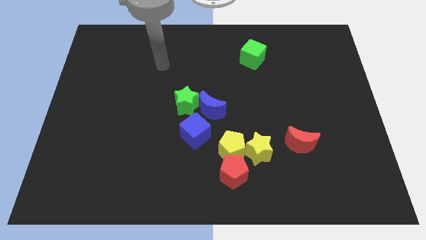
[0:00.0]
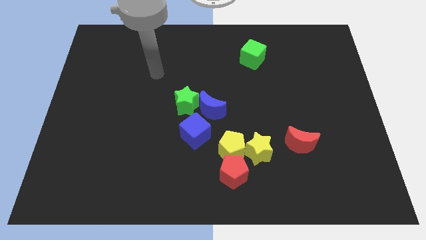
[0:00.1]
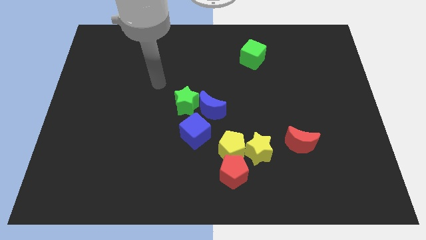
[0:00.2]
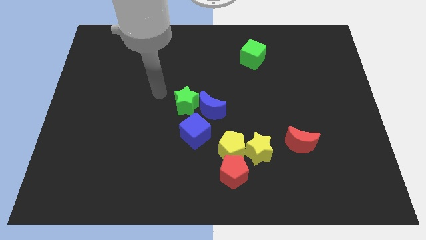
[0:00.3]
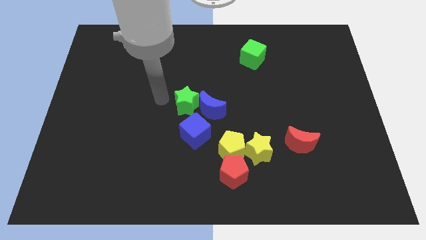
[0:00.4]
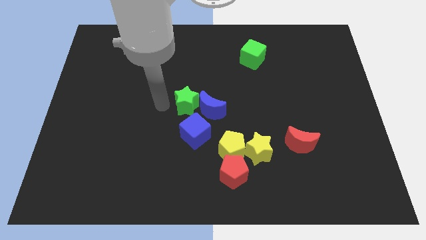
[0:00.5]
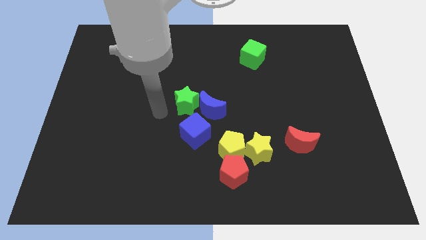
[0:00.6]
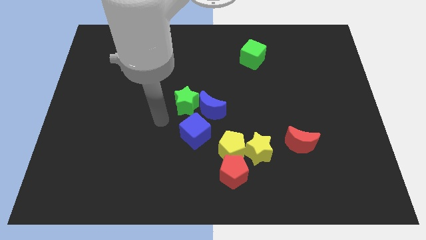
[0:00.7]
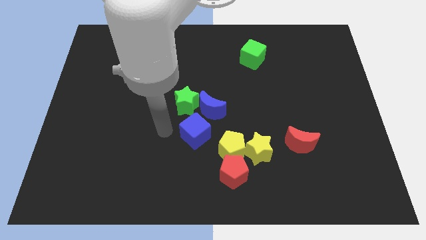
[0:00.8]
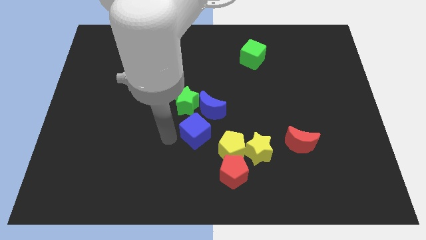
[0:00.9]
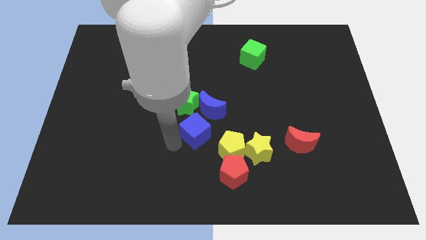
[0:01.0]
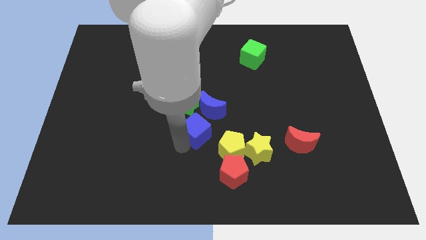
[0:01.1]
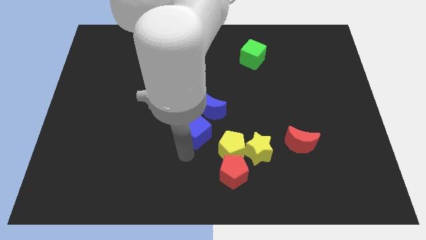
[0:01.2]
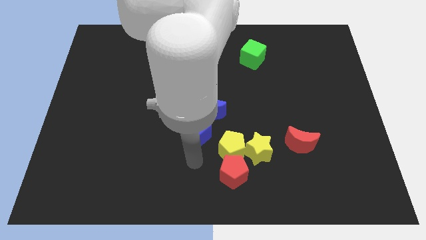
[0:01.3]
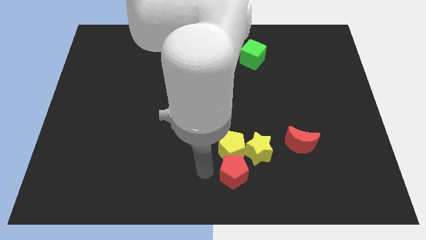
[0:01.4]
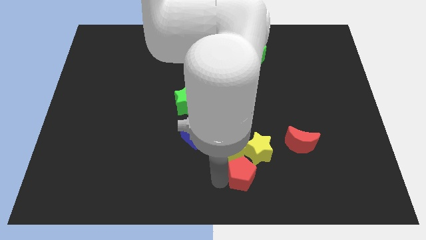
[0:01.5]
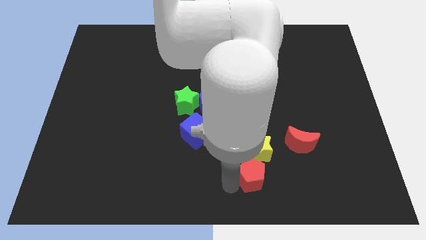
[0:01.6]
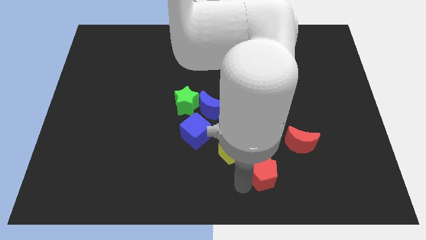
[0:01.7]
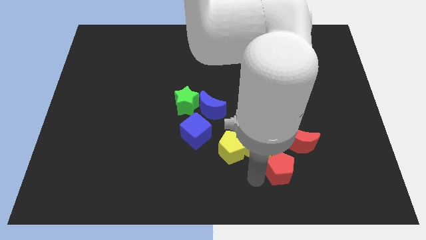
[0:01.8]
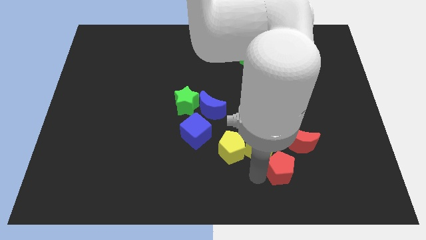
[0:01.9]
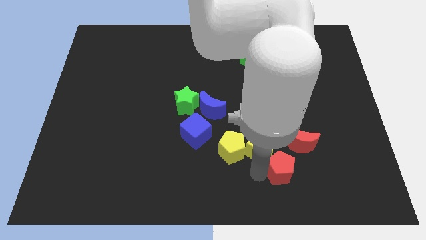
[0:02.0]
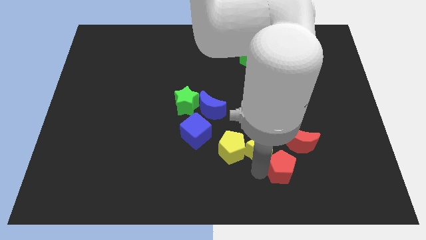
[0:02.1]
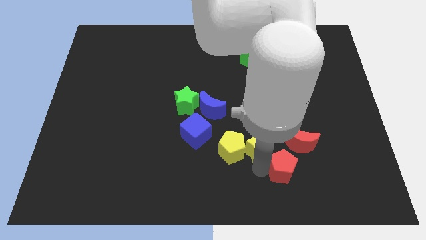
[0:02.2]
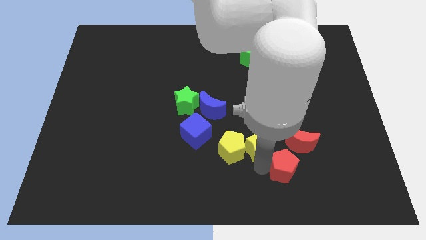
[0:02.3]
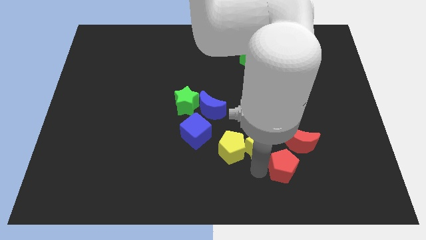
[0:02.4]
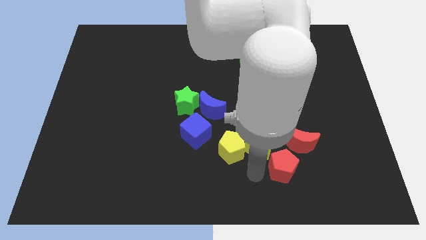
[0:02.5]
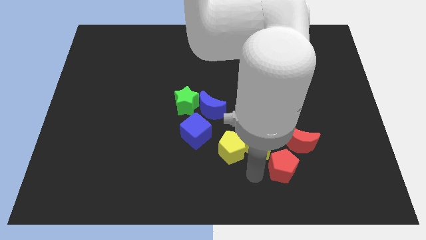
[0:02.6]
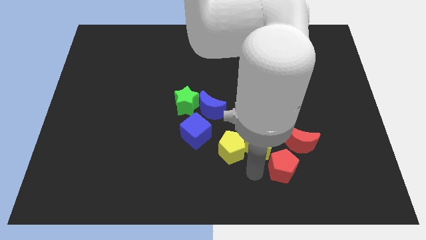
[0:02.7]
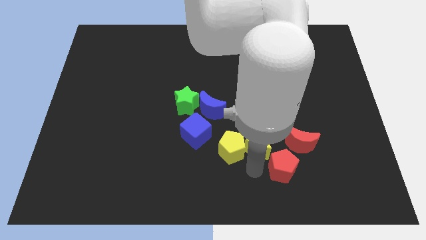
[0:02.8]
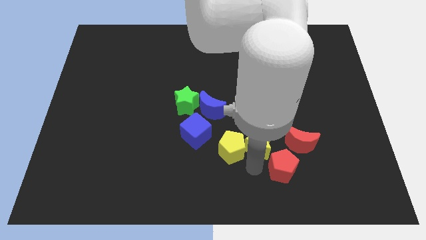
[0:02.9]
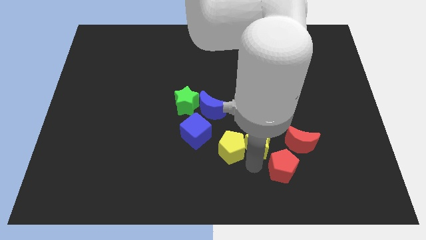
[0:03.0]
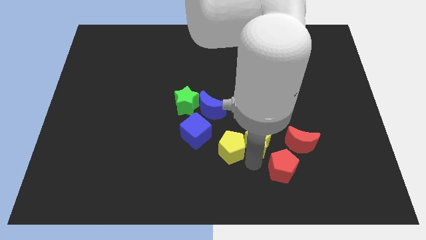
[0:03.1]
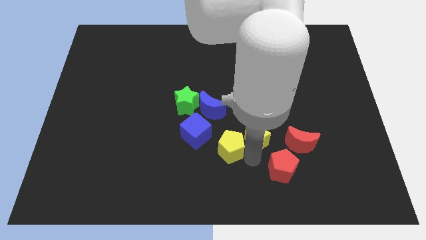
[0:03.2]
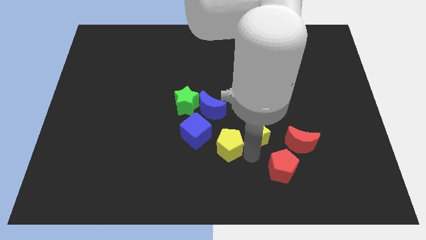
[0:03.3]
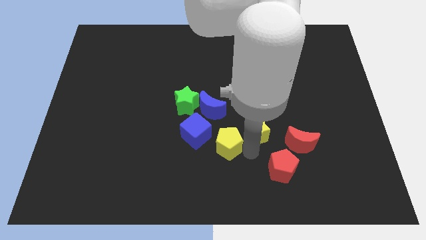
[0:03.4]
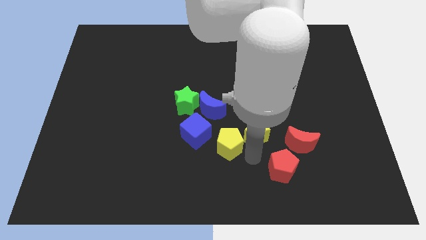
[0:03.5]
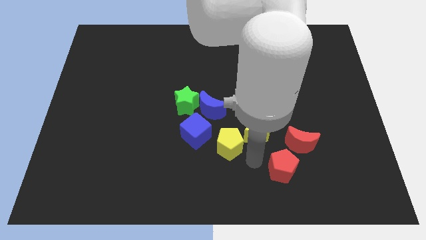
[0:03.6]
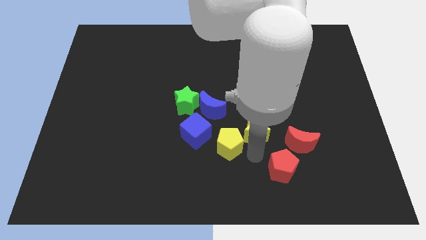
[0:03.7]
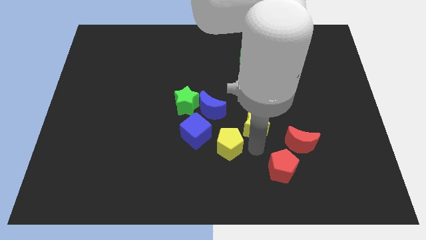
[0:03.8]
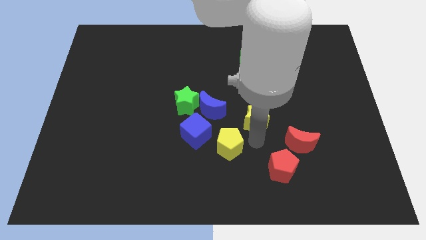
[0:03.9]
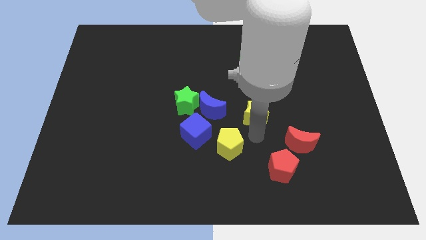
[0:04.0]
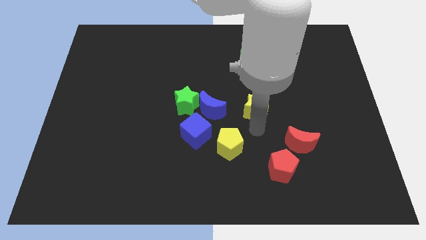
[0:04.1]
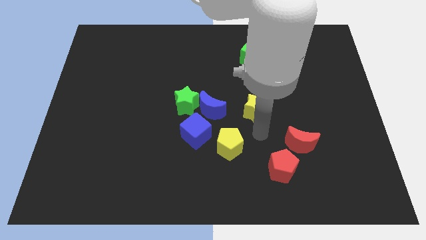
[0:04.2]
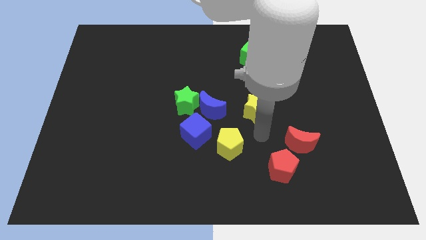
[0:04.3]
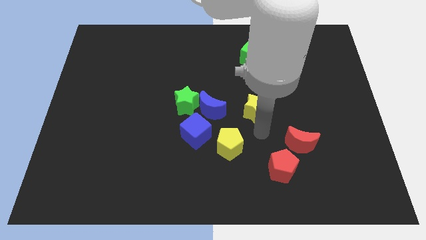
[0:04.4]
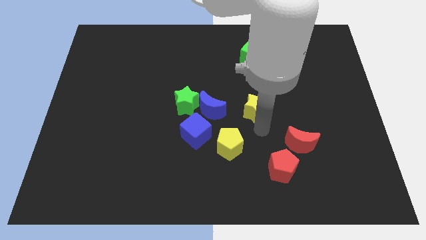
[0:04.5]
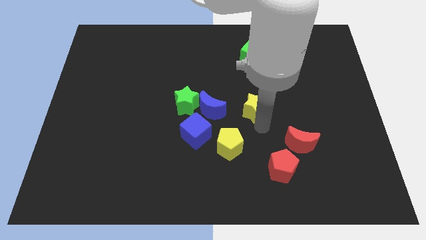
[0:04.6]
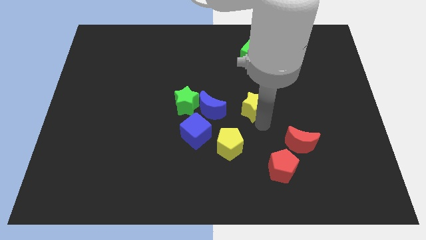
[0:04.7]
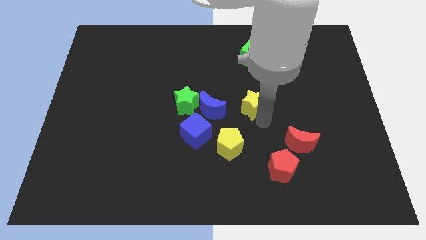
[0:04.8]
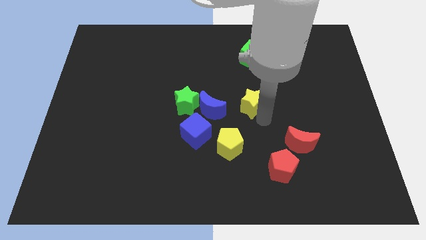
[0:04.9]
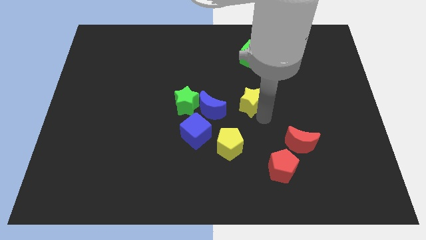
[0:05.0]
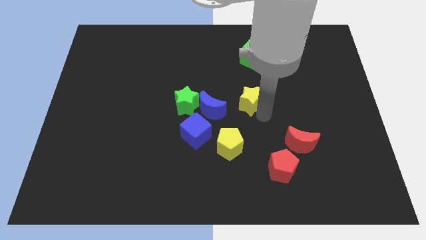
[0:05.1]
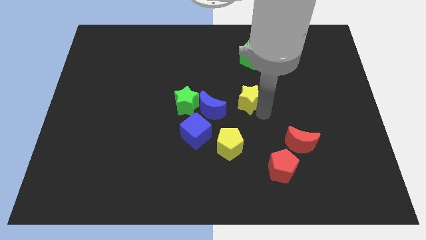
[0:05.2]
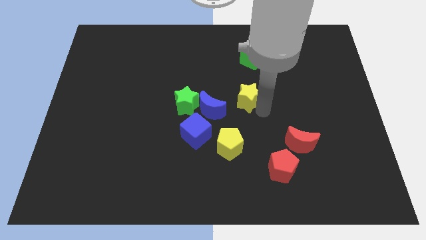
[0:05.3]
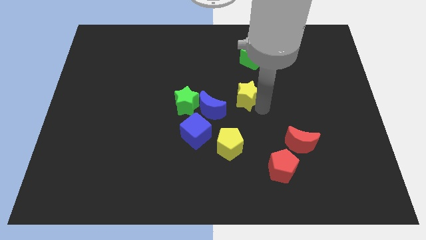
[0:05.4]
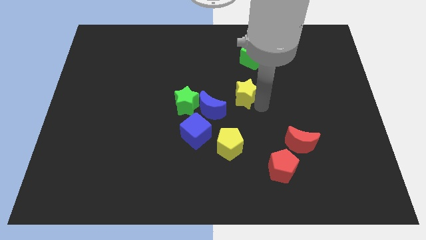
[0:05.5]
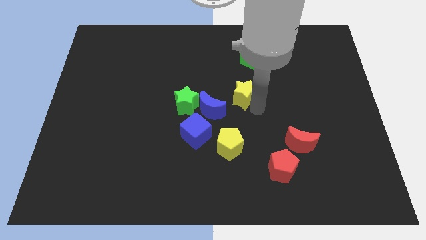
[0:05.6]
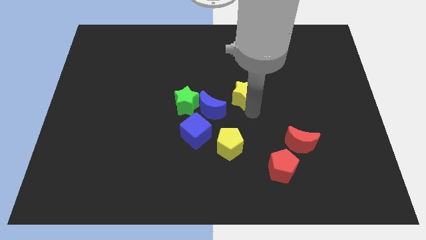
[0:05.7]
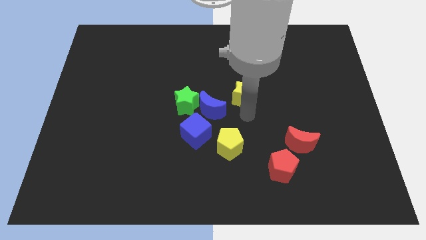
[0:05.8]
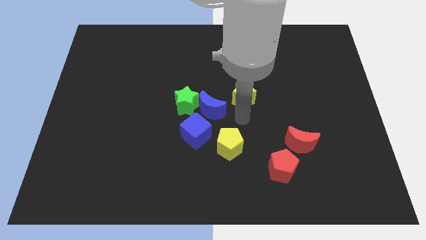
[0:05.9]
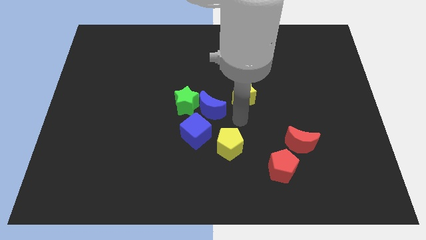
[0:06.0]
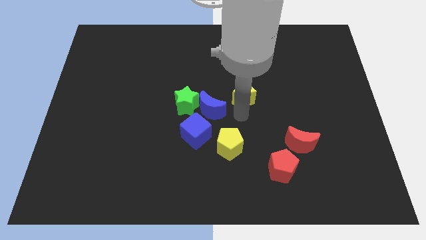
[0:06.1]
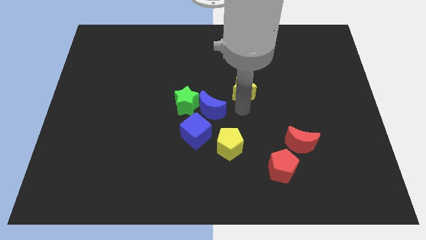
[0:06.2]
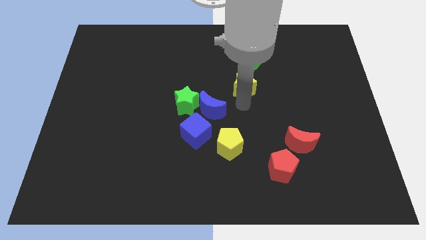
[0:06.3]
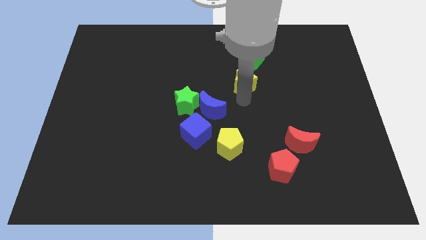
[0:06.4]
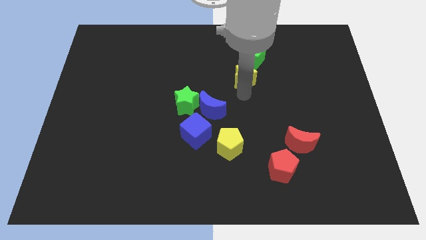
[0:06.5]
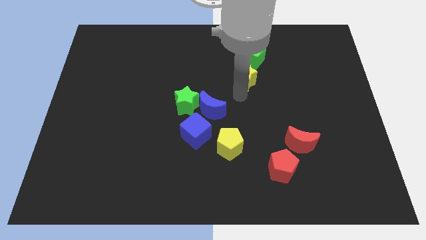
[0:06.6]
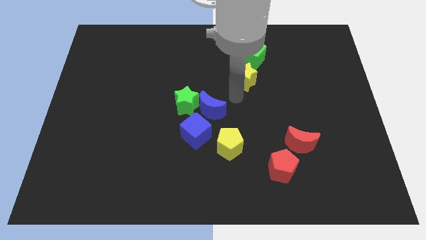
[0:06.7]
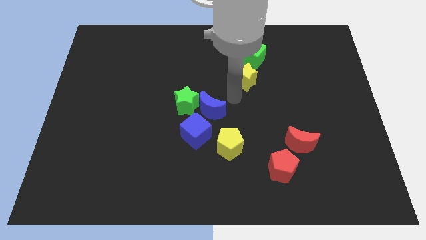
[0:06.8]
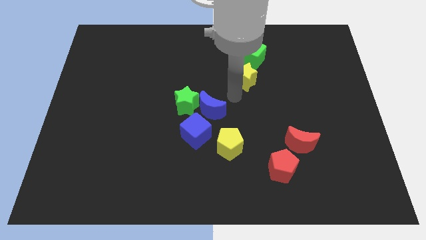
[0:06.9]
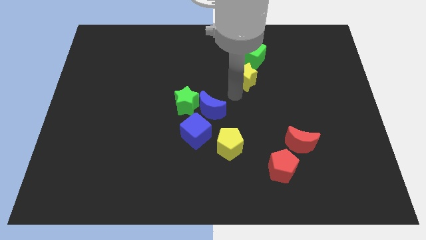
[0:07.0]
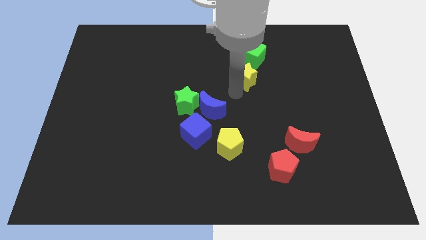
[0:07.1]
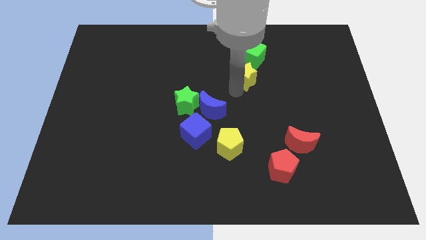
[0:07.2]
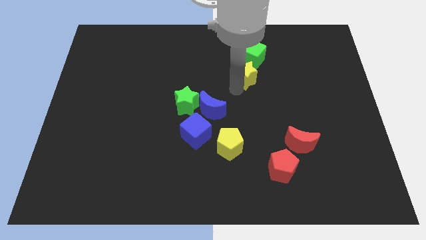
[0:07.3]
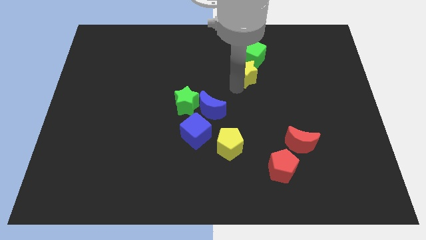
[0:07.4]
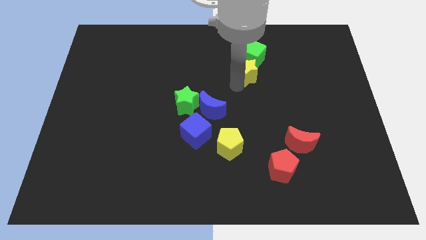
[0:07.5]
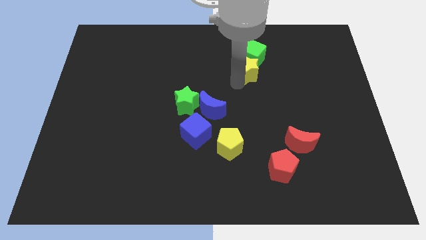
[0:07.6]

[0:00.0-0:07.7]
push the yellow star to the green cube
